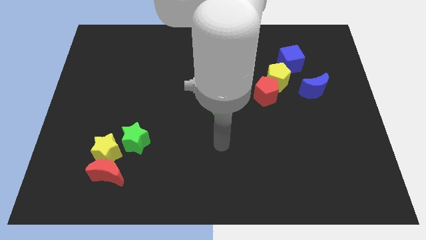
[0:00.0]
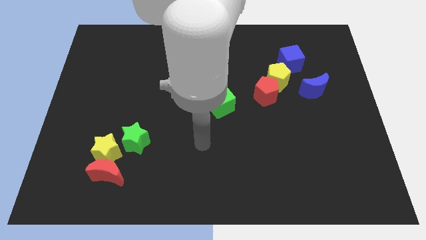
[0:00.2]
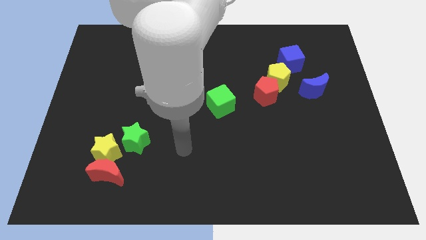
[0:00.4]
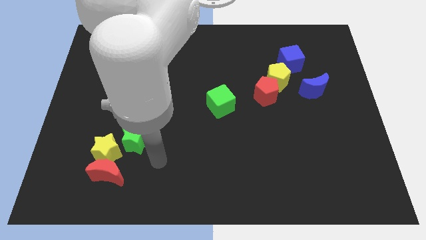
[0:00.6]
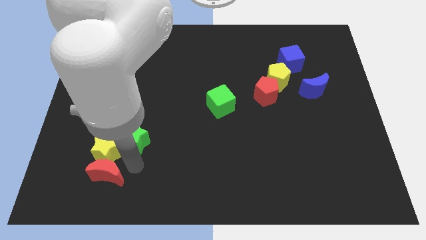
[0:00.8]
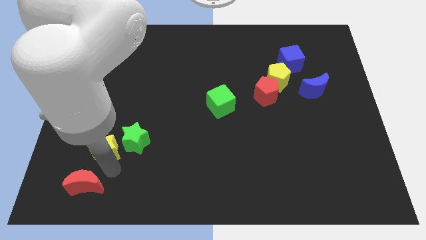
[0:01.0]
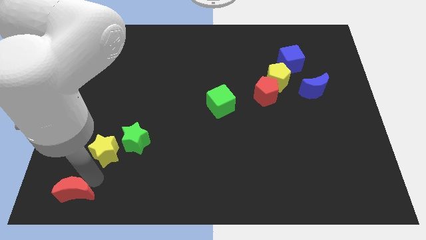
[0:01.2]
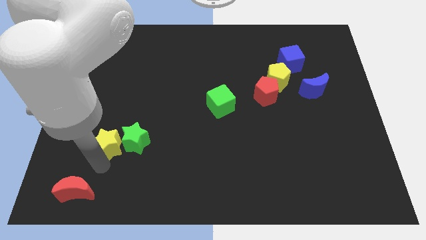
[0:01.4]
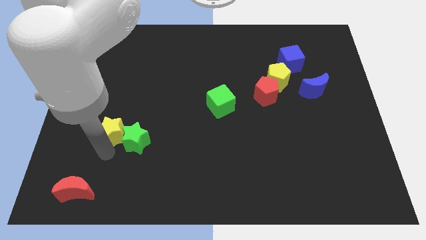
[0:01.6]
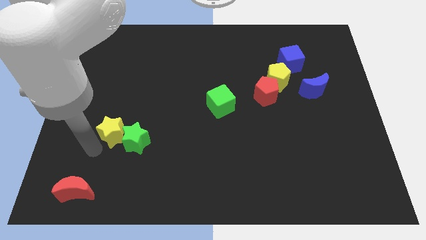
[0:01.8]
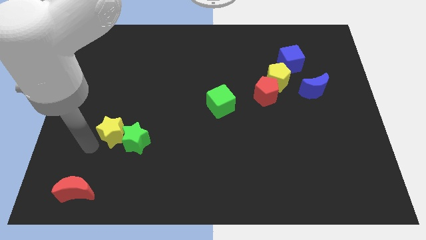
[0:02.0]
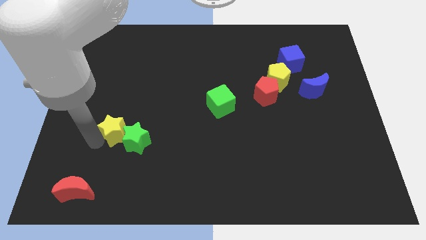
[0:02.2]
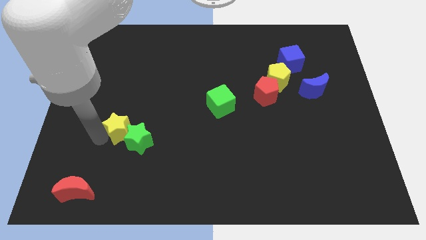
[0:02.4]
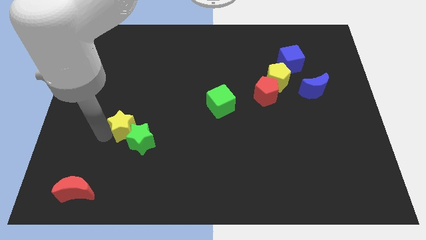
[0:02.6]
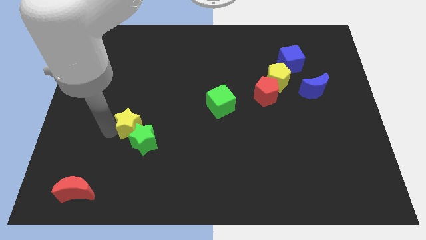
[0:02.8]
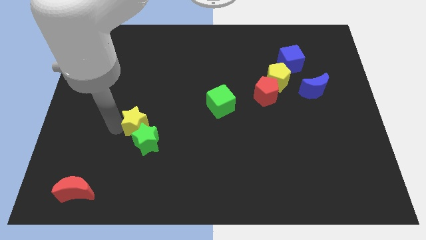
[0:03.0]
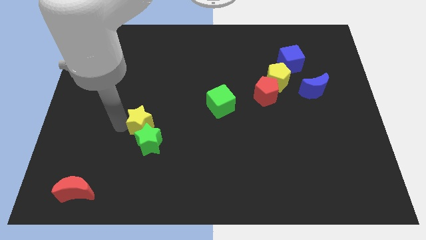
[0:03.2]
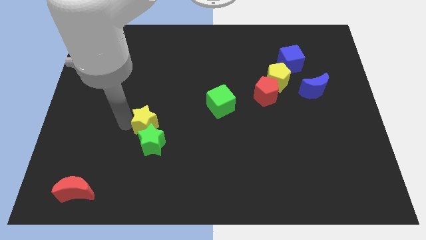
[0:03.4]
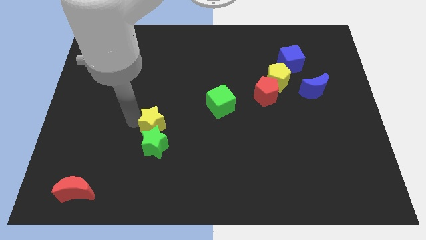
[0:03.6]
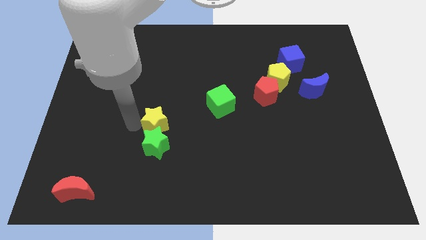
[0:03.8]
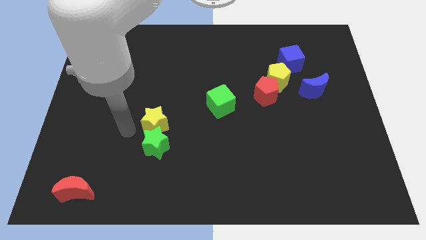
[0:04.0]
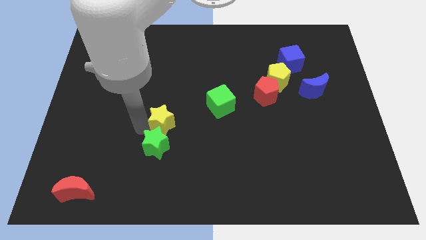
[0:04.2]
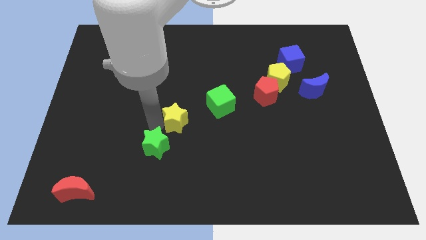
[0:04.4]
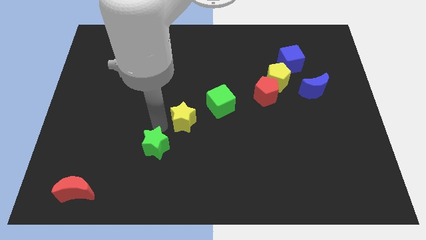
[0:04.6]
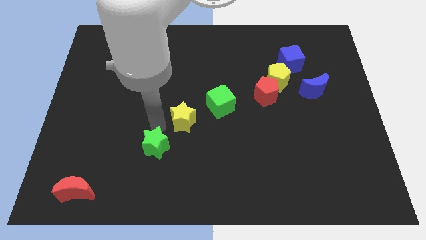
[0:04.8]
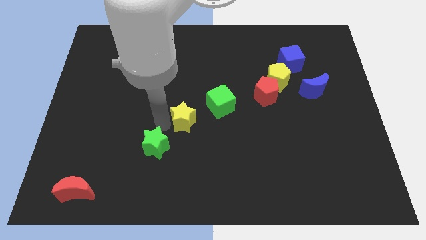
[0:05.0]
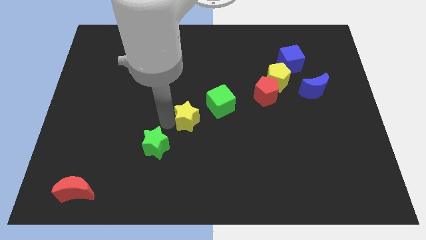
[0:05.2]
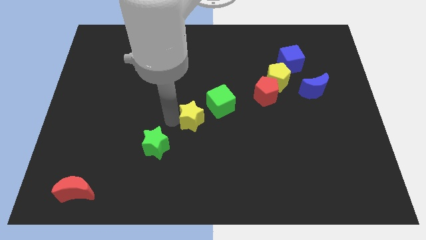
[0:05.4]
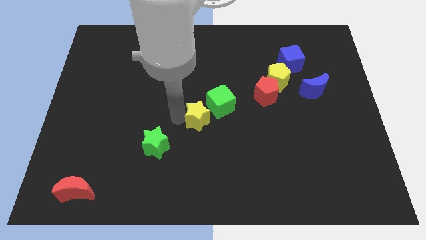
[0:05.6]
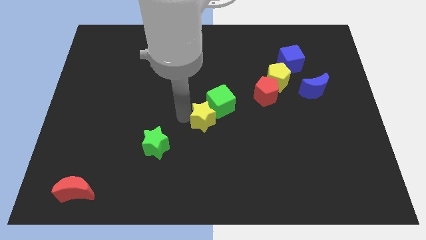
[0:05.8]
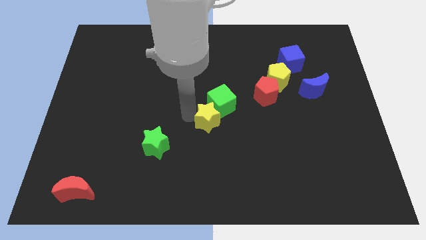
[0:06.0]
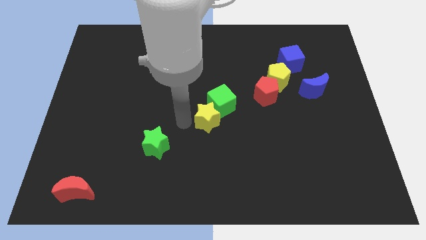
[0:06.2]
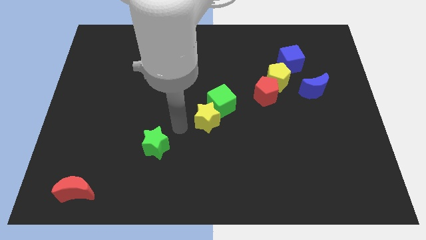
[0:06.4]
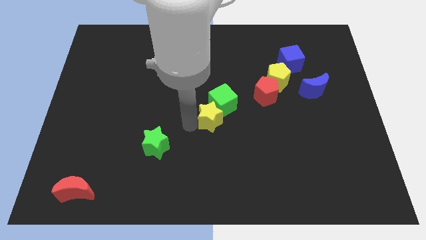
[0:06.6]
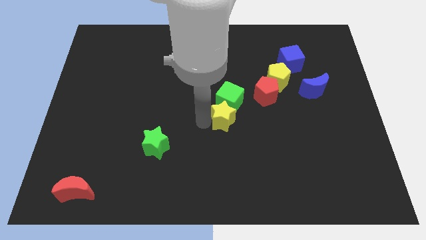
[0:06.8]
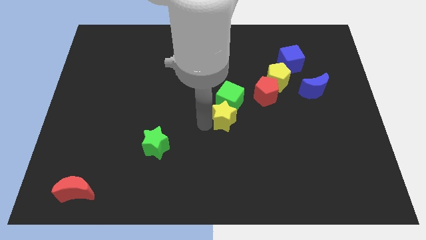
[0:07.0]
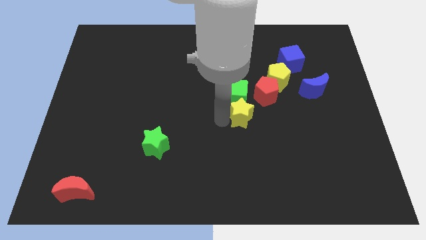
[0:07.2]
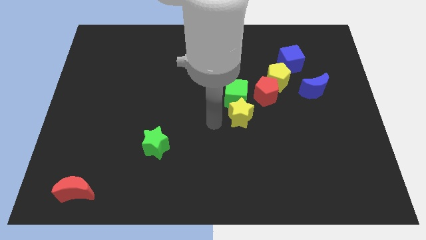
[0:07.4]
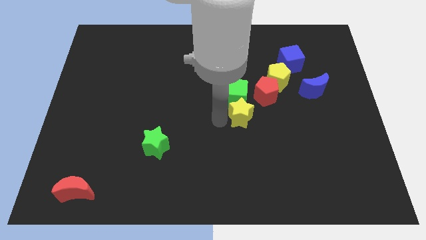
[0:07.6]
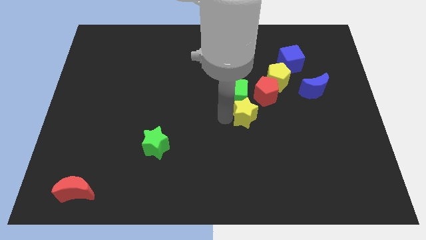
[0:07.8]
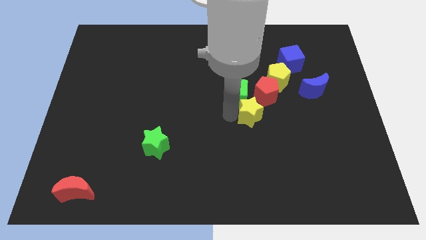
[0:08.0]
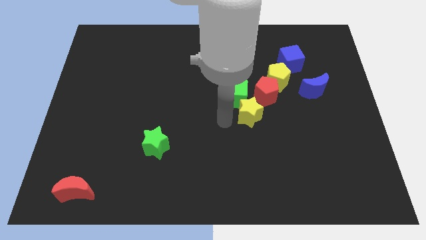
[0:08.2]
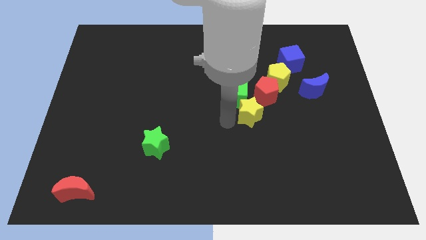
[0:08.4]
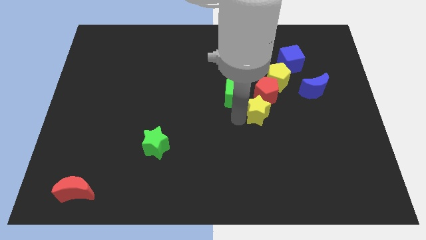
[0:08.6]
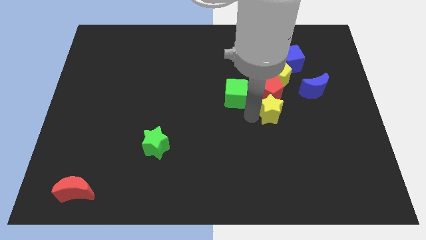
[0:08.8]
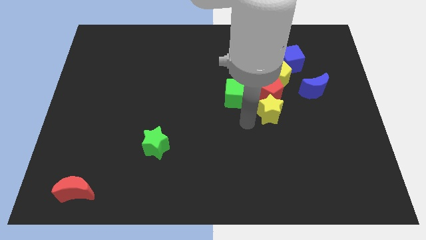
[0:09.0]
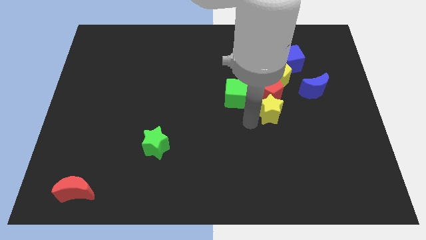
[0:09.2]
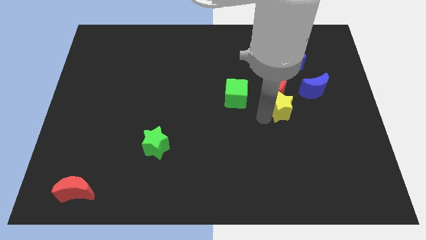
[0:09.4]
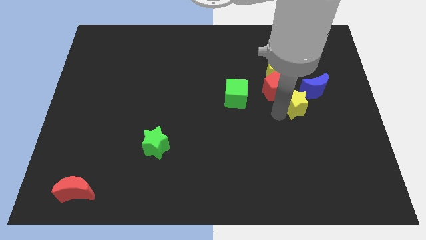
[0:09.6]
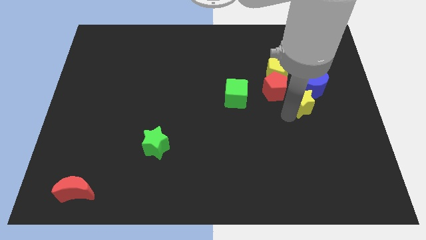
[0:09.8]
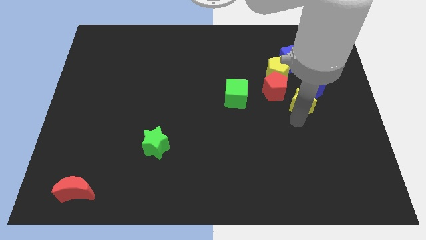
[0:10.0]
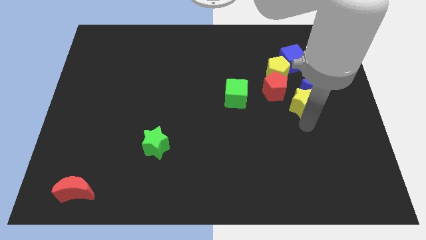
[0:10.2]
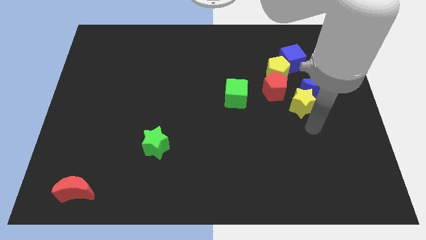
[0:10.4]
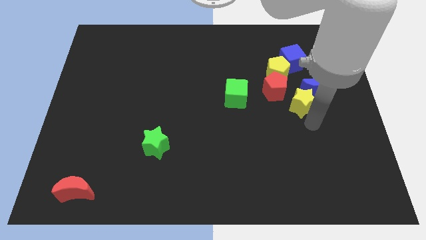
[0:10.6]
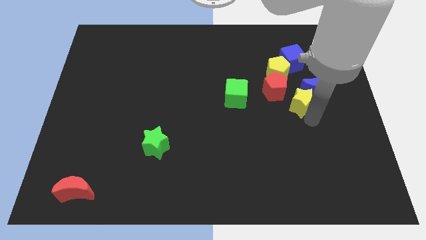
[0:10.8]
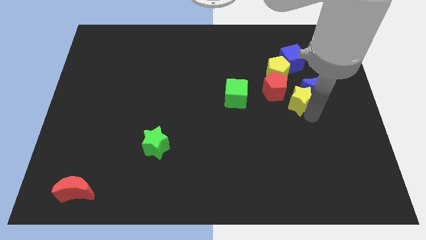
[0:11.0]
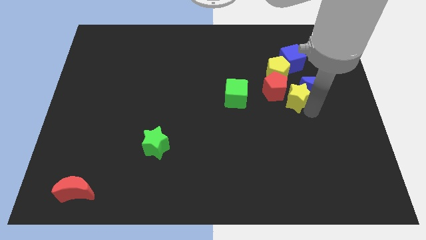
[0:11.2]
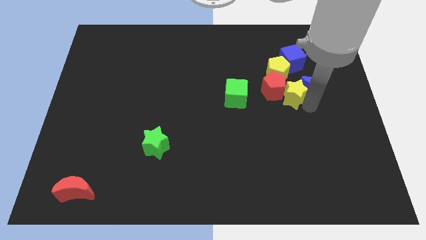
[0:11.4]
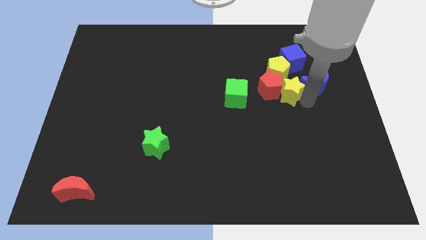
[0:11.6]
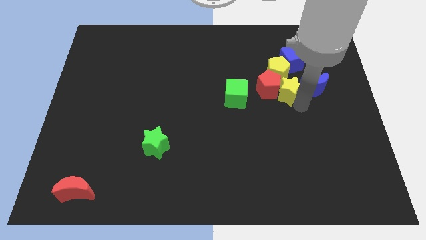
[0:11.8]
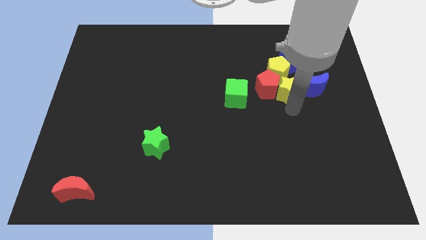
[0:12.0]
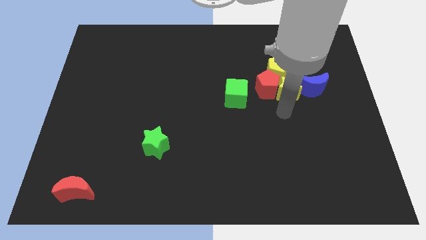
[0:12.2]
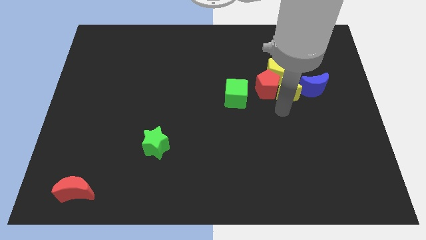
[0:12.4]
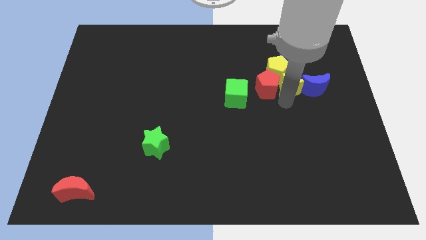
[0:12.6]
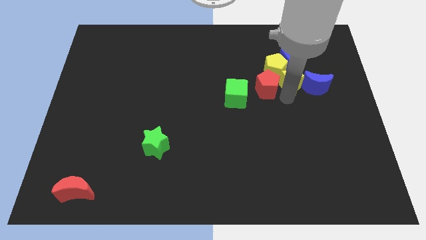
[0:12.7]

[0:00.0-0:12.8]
slide the yellow star right of the yellow pentagon
